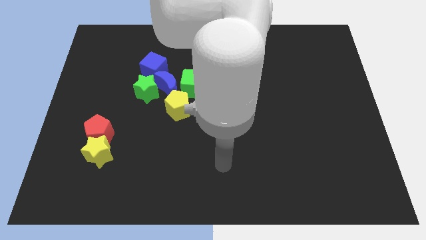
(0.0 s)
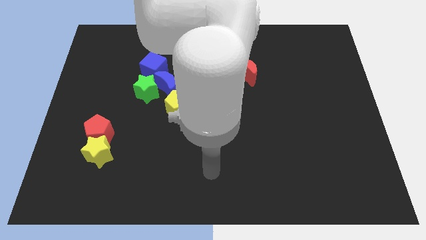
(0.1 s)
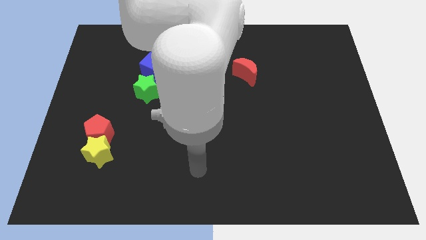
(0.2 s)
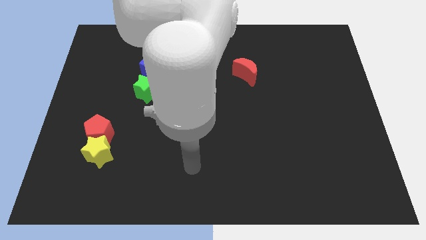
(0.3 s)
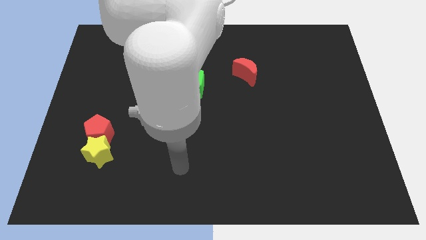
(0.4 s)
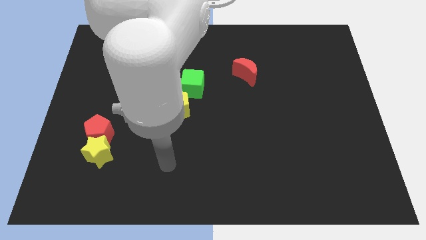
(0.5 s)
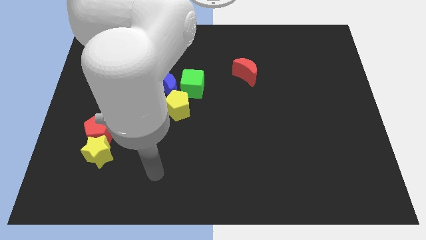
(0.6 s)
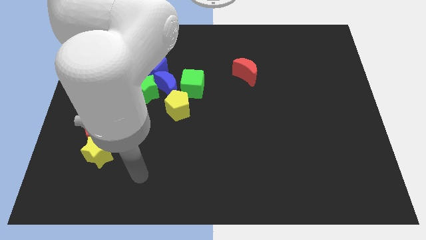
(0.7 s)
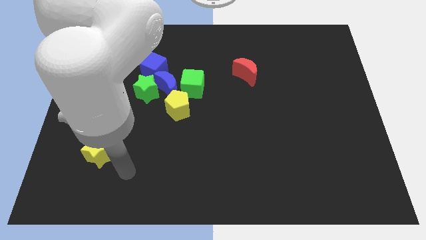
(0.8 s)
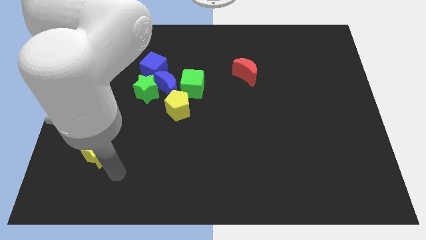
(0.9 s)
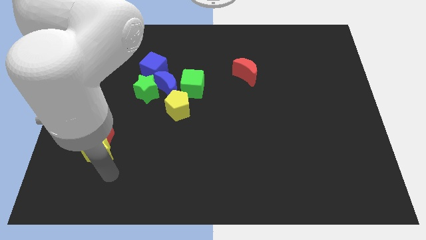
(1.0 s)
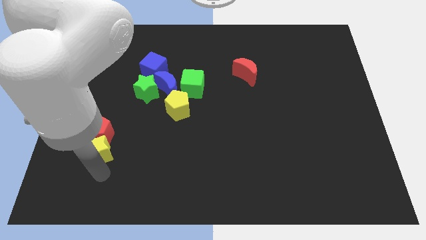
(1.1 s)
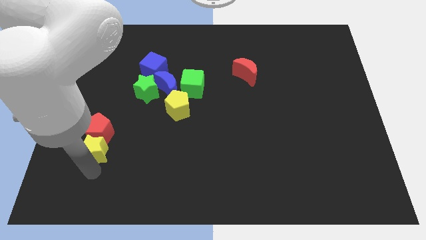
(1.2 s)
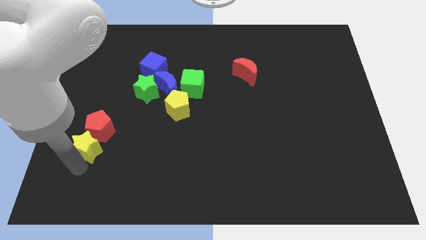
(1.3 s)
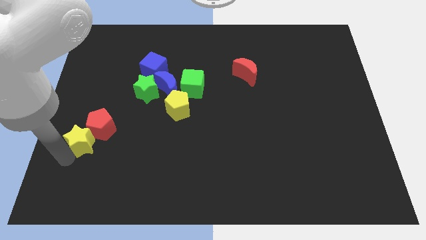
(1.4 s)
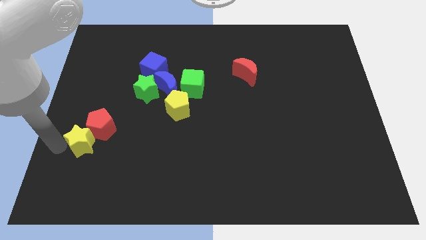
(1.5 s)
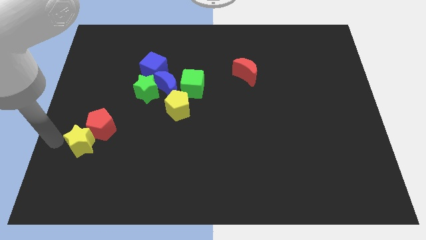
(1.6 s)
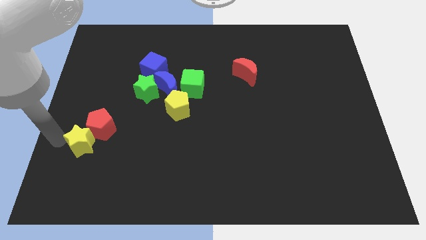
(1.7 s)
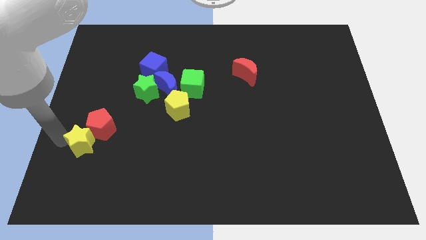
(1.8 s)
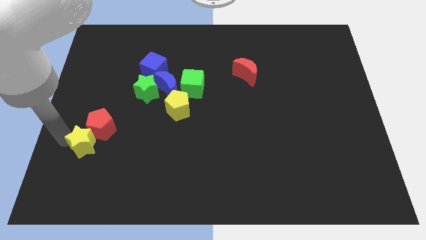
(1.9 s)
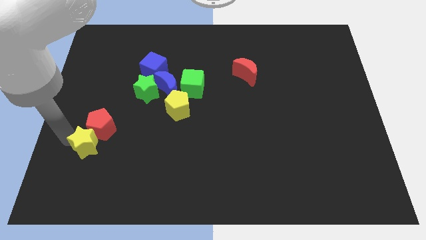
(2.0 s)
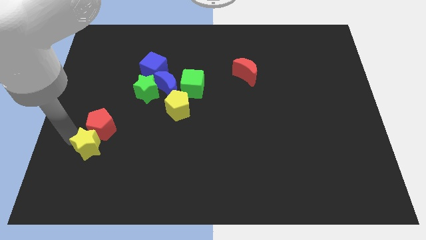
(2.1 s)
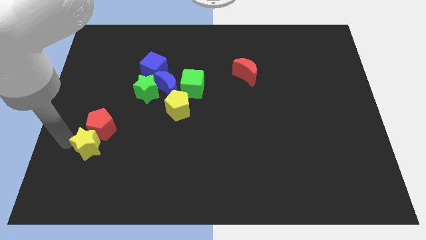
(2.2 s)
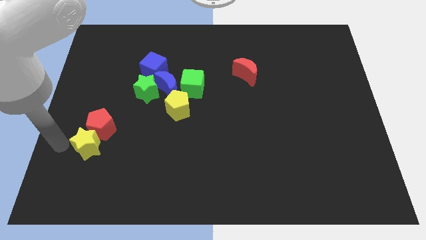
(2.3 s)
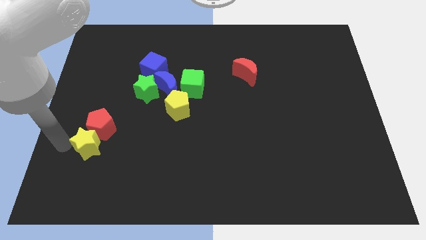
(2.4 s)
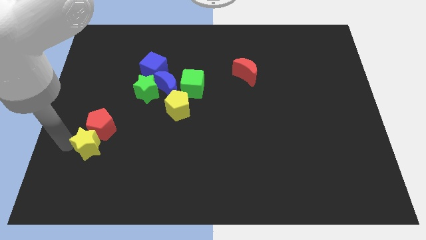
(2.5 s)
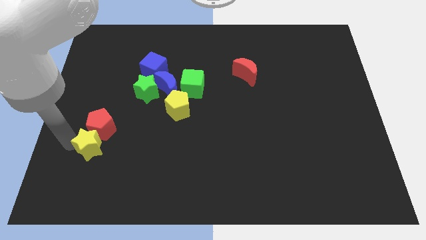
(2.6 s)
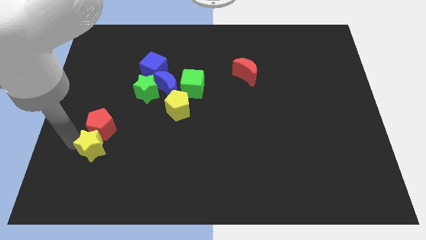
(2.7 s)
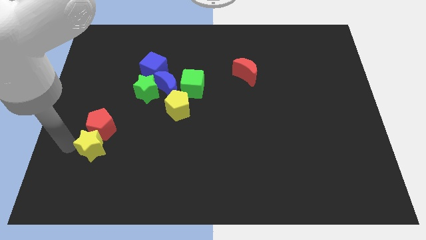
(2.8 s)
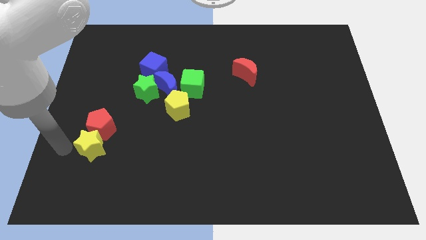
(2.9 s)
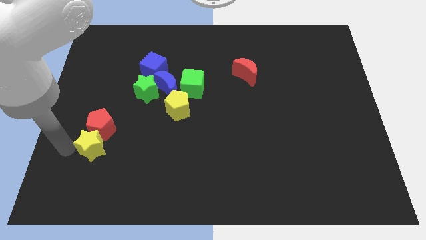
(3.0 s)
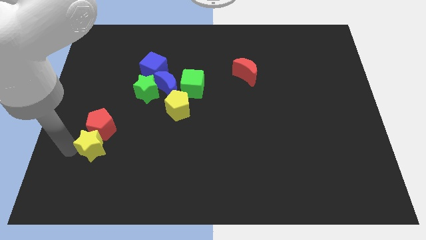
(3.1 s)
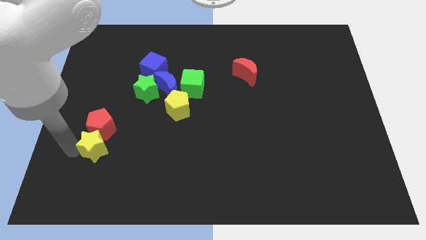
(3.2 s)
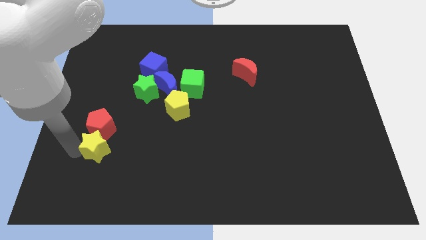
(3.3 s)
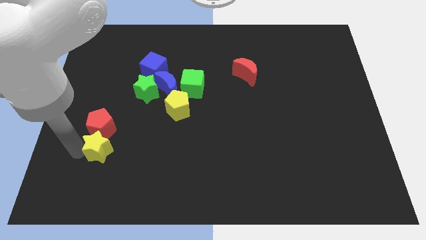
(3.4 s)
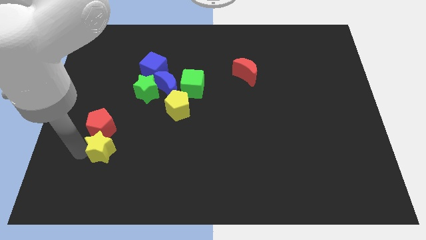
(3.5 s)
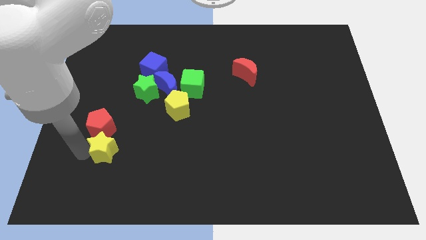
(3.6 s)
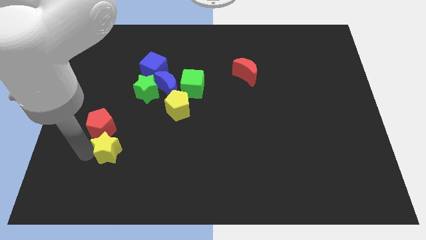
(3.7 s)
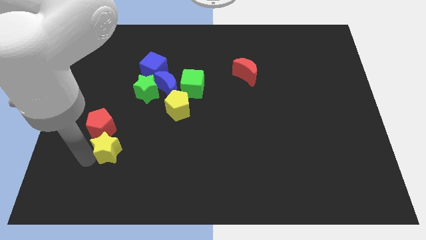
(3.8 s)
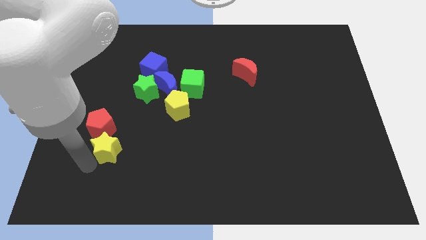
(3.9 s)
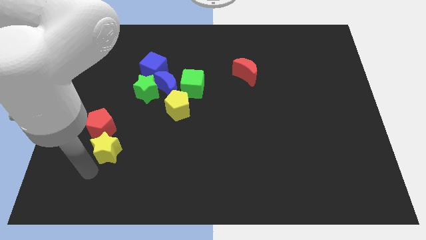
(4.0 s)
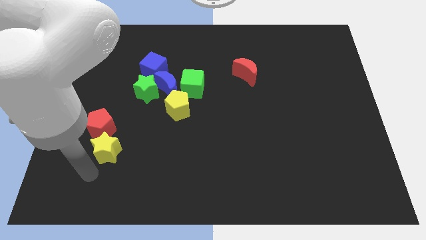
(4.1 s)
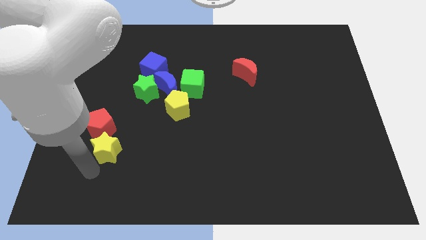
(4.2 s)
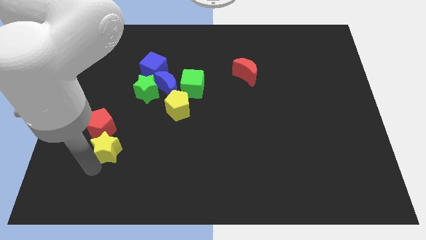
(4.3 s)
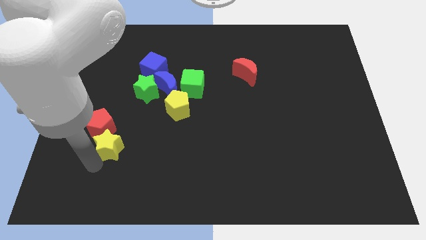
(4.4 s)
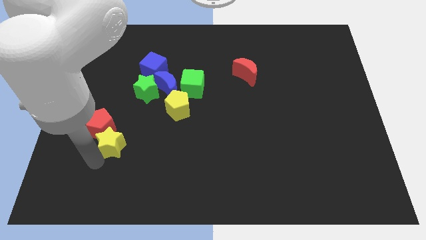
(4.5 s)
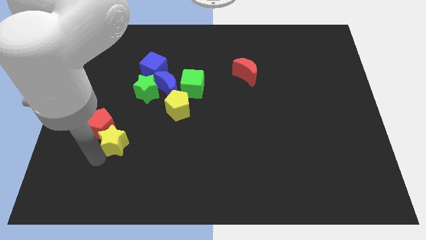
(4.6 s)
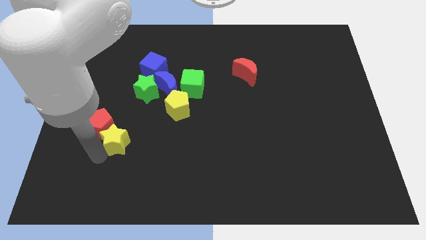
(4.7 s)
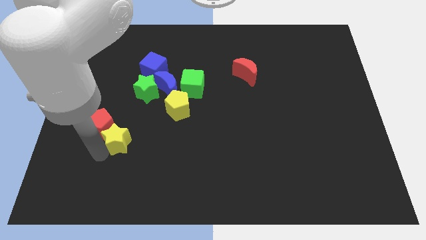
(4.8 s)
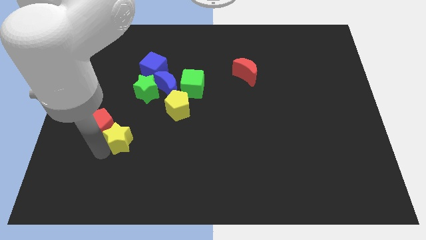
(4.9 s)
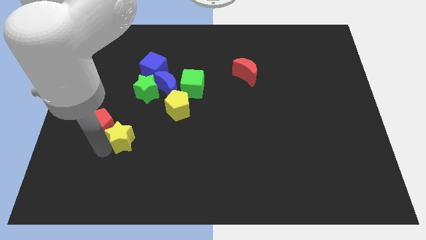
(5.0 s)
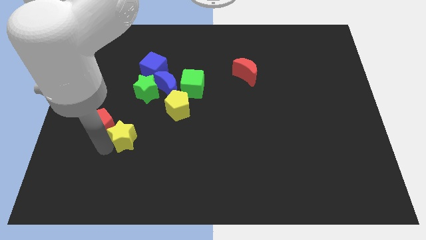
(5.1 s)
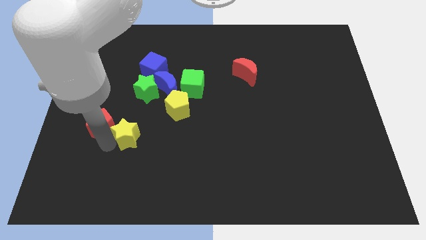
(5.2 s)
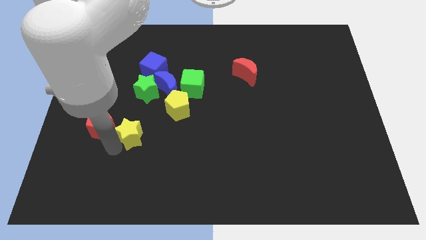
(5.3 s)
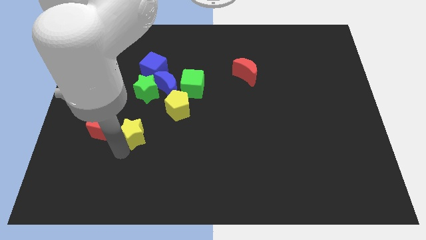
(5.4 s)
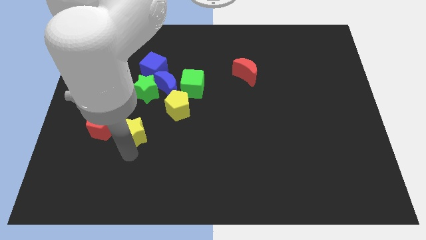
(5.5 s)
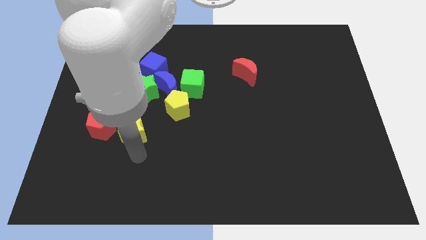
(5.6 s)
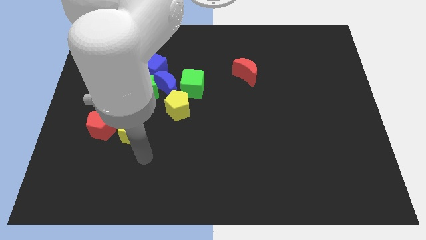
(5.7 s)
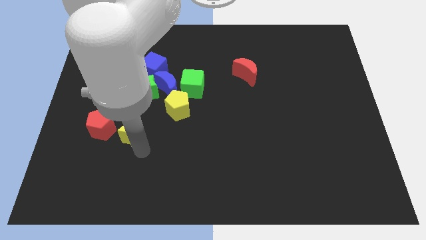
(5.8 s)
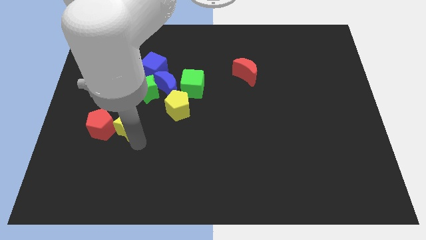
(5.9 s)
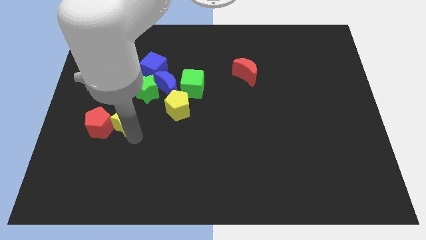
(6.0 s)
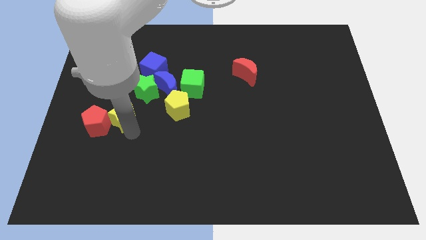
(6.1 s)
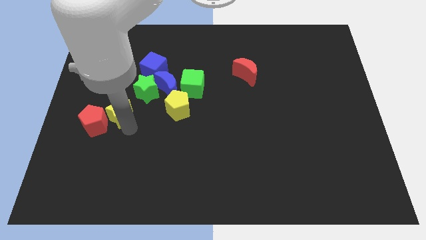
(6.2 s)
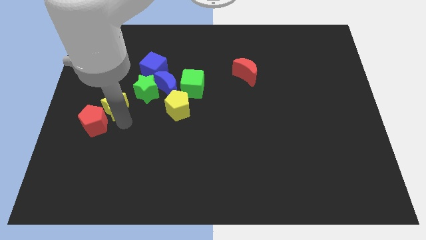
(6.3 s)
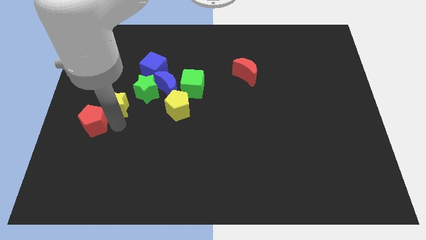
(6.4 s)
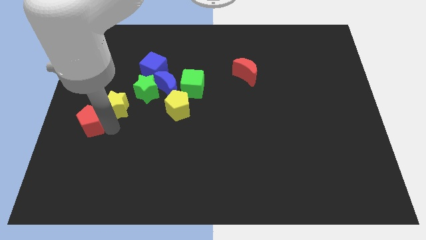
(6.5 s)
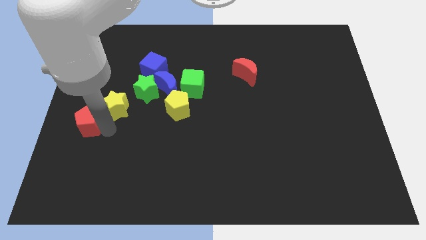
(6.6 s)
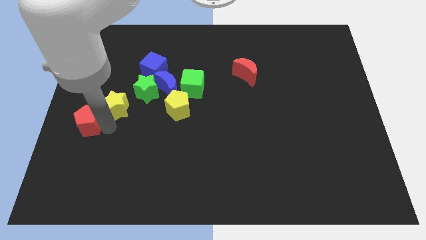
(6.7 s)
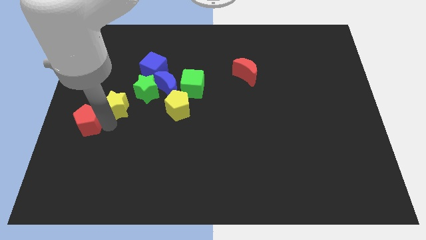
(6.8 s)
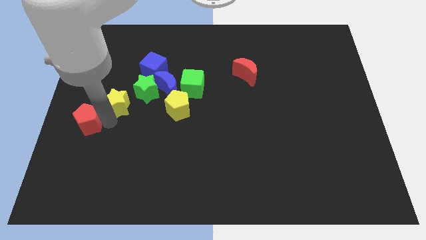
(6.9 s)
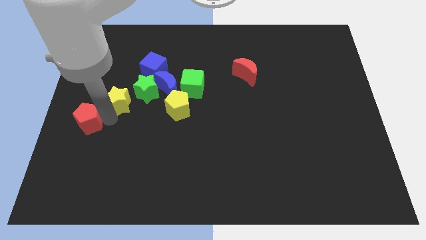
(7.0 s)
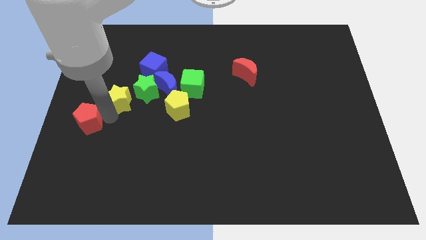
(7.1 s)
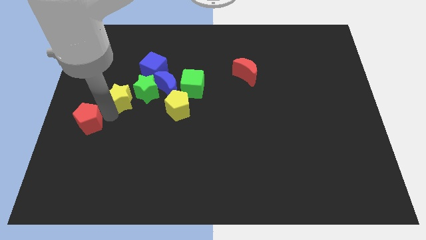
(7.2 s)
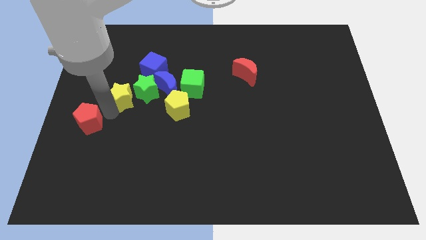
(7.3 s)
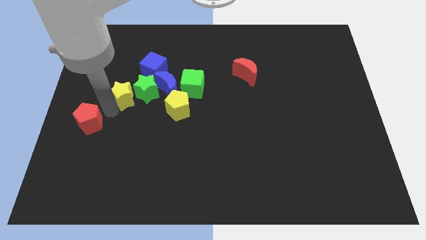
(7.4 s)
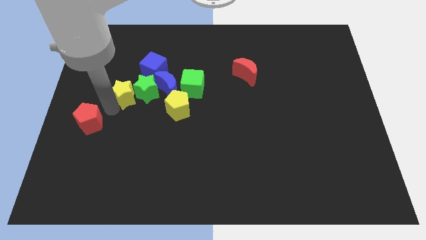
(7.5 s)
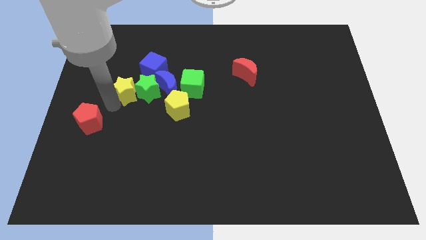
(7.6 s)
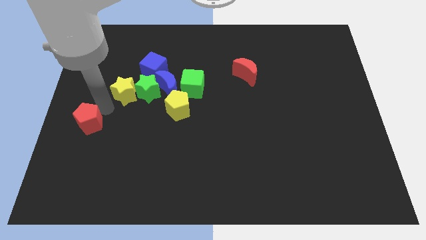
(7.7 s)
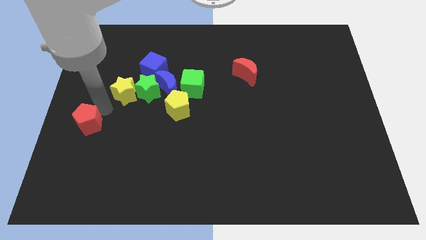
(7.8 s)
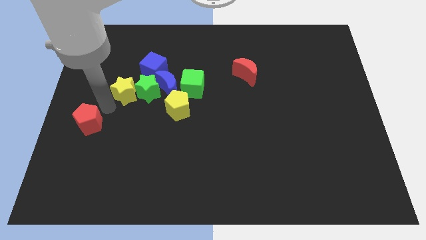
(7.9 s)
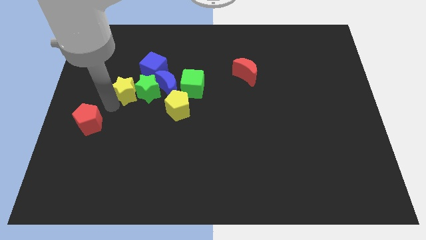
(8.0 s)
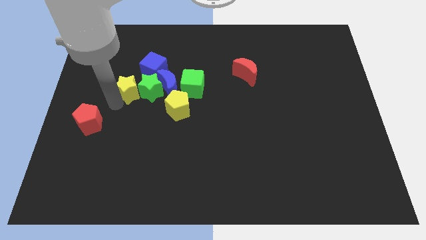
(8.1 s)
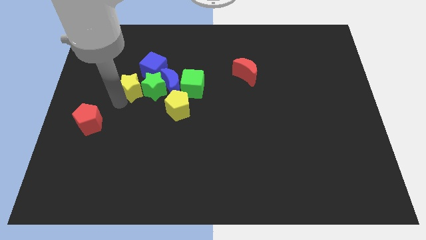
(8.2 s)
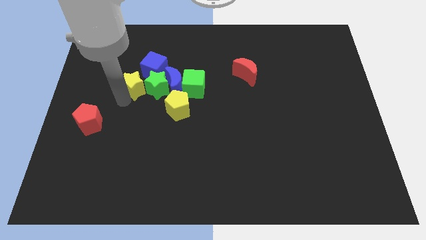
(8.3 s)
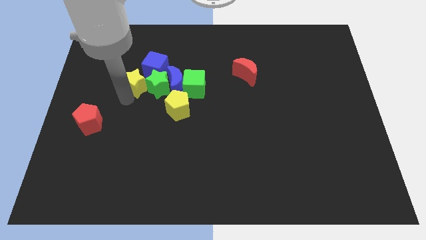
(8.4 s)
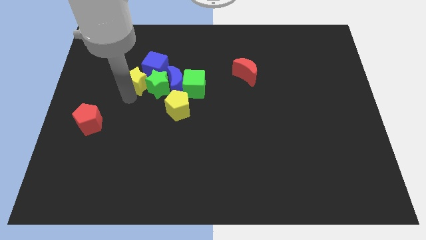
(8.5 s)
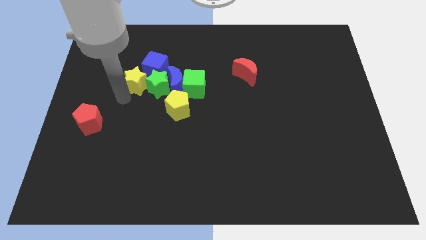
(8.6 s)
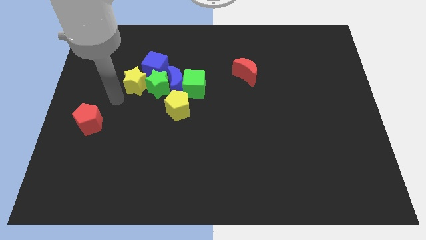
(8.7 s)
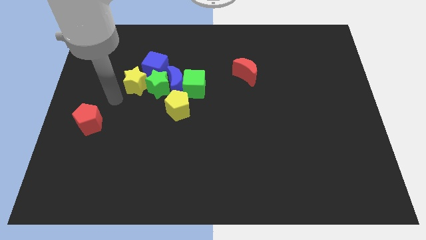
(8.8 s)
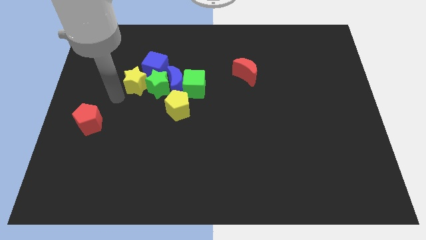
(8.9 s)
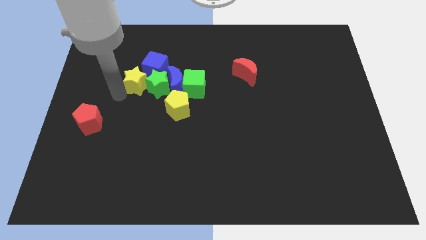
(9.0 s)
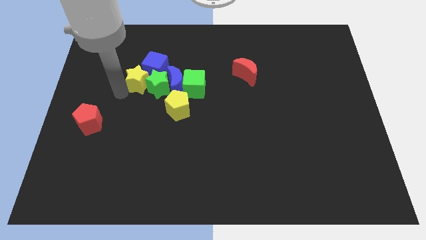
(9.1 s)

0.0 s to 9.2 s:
slide the yellow star towards the blue cube
